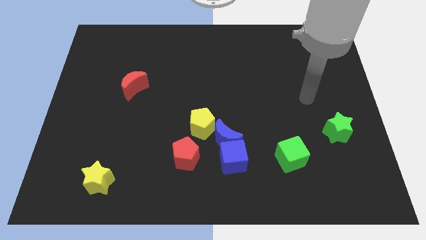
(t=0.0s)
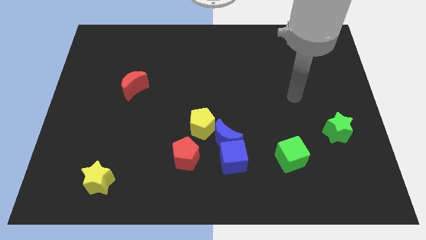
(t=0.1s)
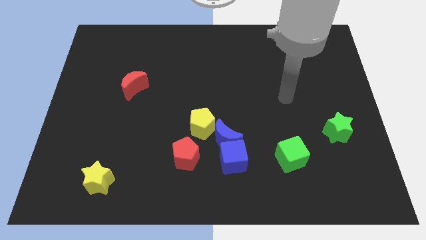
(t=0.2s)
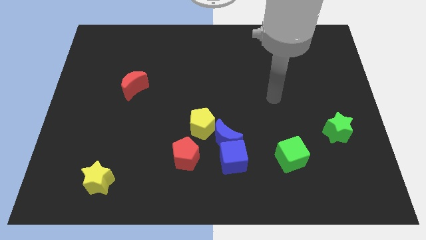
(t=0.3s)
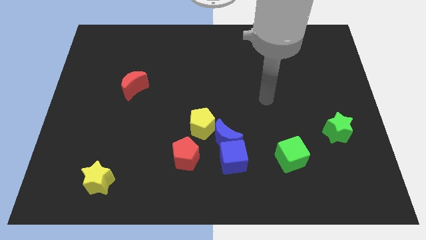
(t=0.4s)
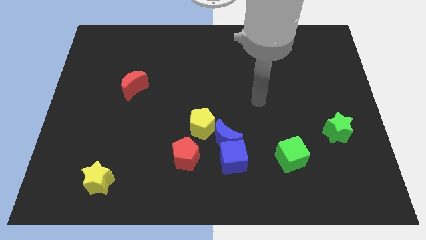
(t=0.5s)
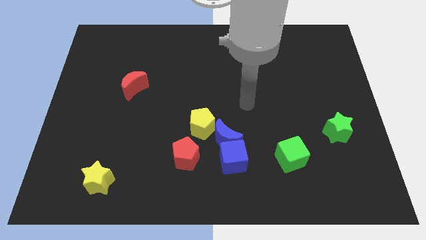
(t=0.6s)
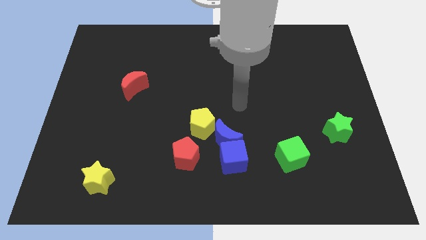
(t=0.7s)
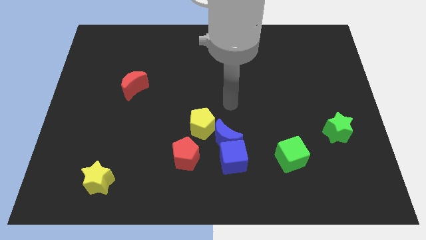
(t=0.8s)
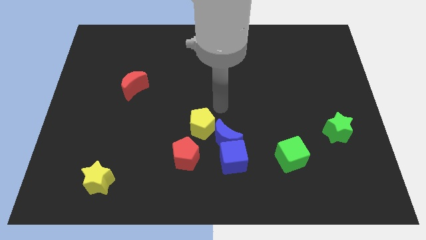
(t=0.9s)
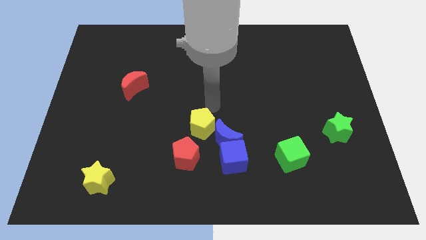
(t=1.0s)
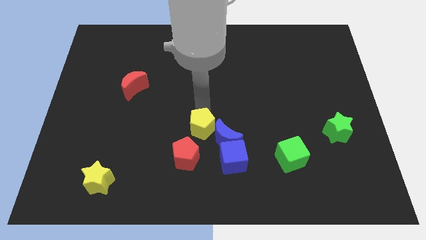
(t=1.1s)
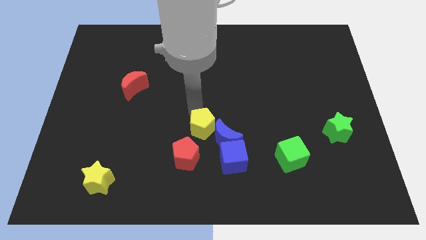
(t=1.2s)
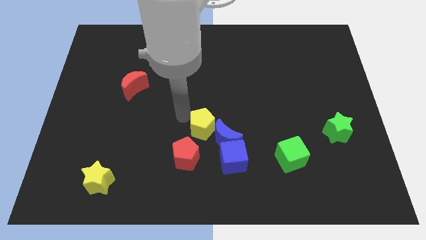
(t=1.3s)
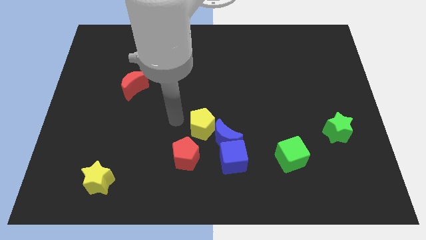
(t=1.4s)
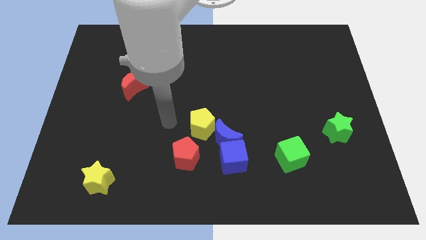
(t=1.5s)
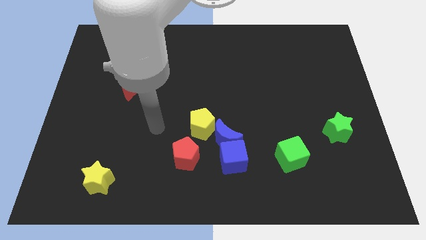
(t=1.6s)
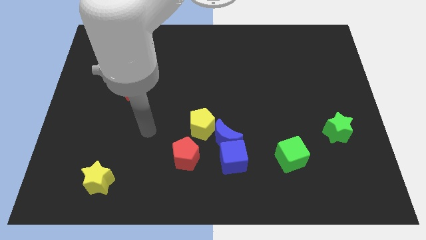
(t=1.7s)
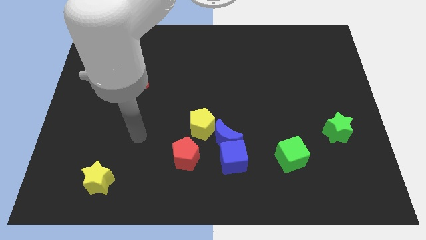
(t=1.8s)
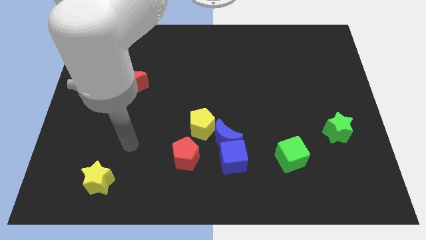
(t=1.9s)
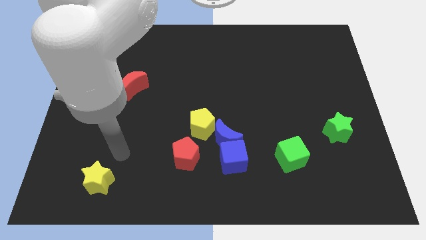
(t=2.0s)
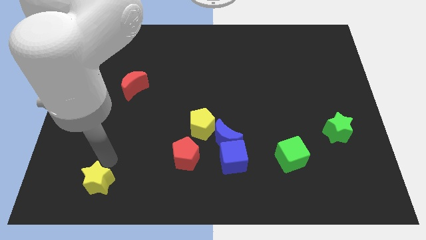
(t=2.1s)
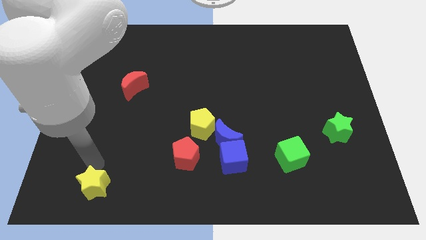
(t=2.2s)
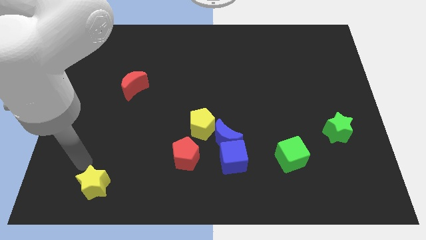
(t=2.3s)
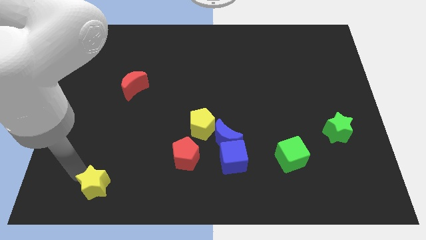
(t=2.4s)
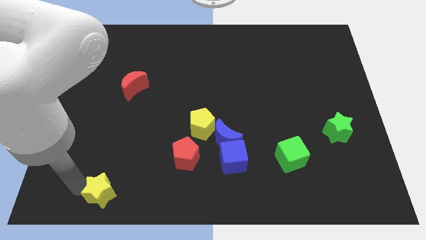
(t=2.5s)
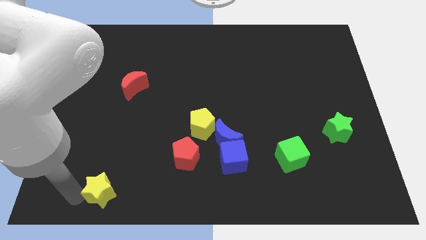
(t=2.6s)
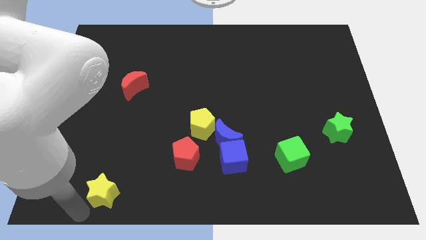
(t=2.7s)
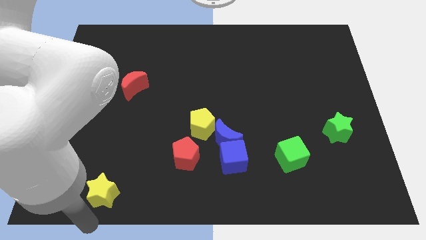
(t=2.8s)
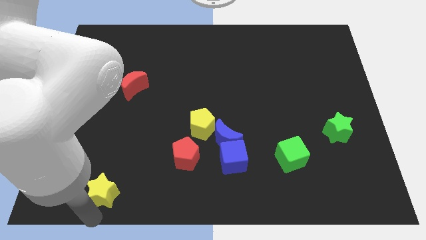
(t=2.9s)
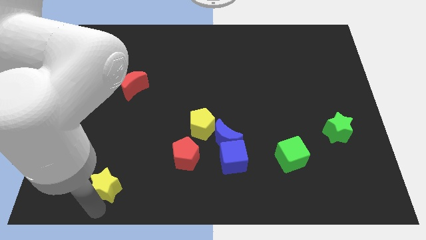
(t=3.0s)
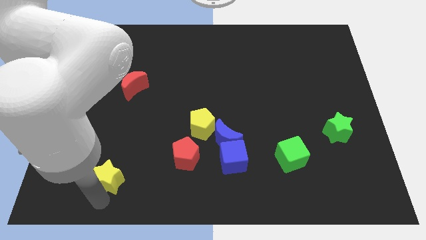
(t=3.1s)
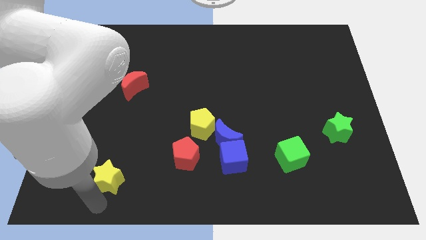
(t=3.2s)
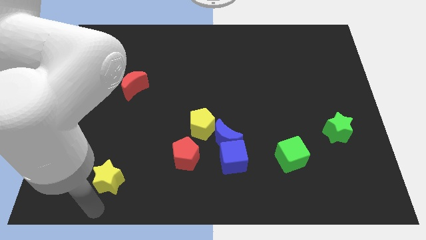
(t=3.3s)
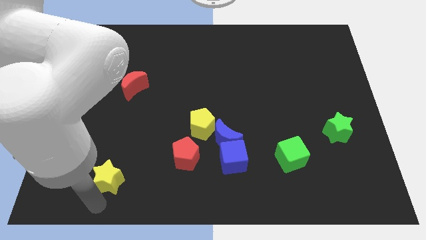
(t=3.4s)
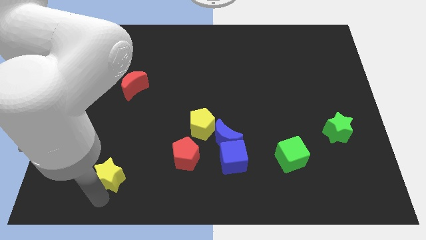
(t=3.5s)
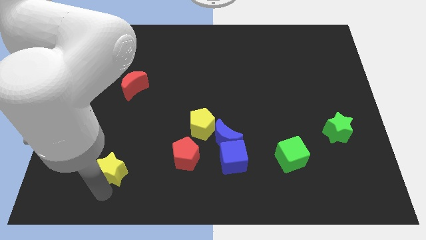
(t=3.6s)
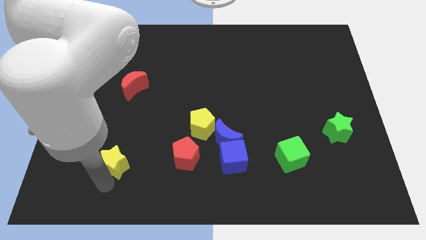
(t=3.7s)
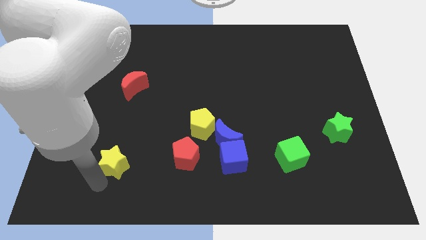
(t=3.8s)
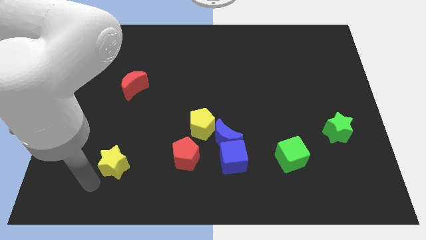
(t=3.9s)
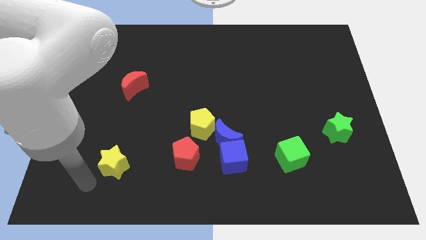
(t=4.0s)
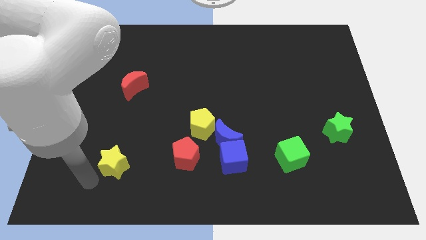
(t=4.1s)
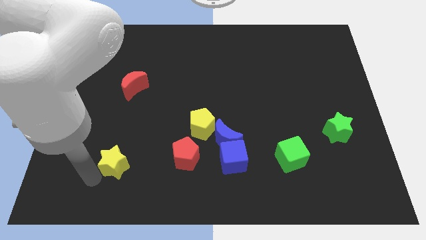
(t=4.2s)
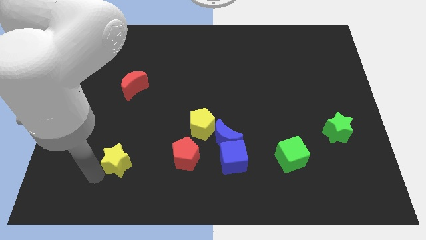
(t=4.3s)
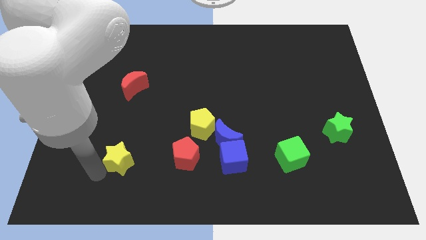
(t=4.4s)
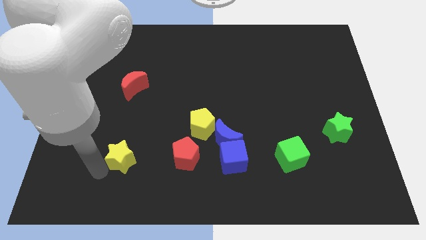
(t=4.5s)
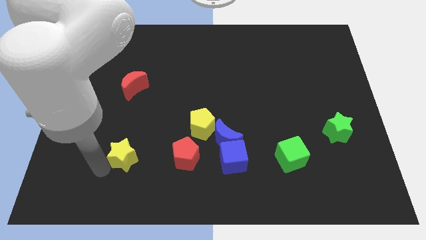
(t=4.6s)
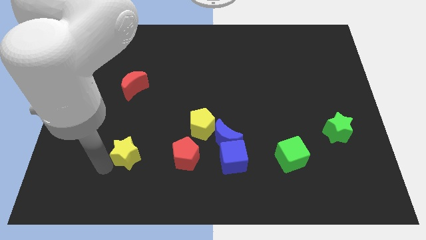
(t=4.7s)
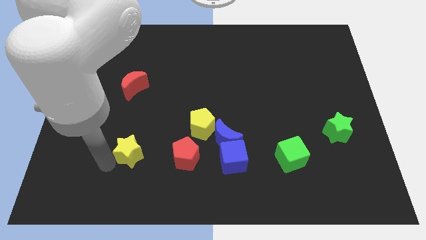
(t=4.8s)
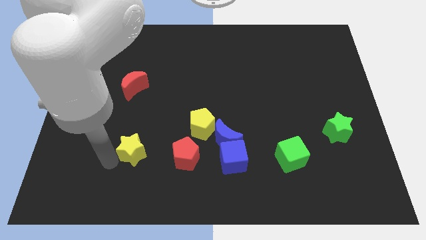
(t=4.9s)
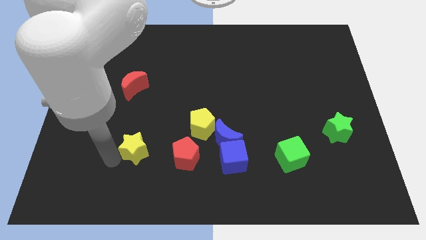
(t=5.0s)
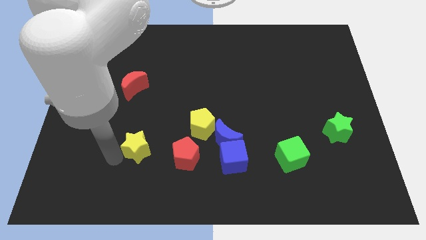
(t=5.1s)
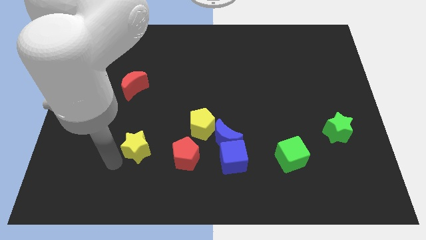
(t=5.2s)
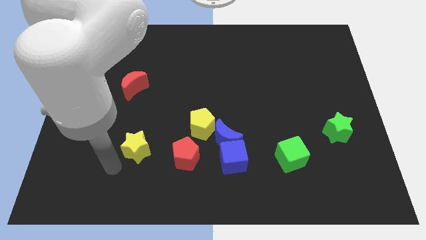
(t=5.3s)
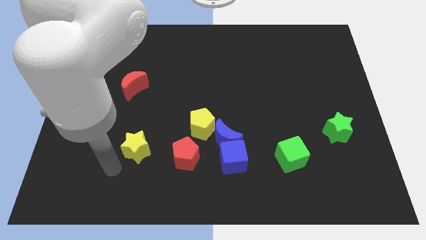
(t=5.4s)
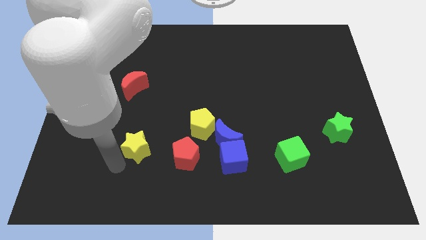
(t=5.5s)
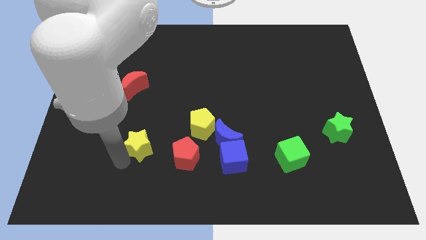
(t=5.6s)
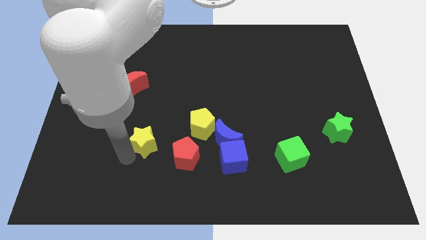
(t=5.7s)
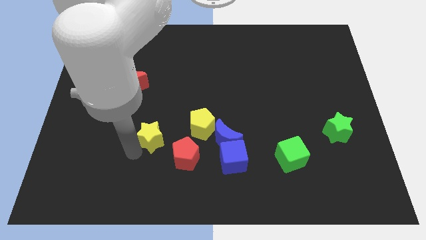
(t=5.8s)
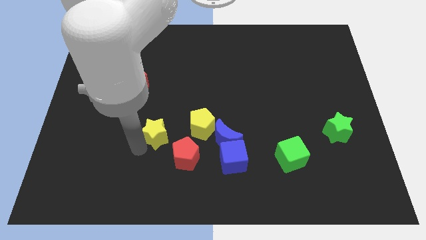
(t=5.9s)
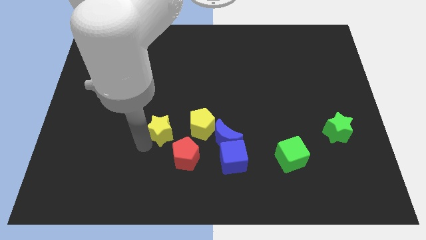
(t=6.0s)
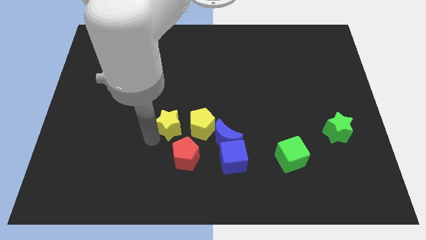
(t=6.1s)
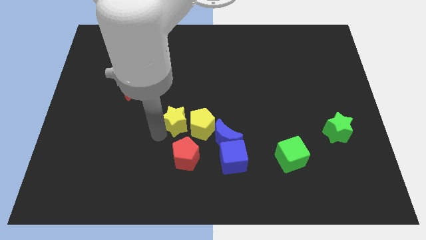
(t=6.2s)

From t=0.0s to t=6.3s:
move the yellow star diagonally up and to the right

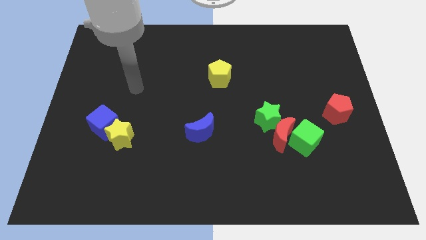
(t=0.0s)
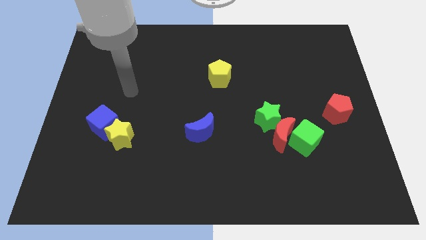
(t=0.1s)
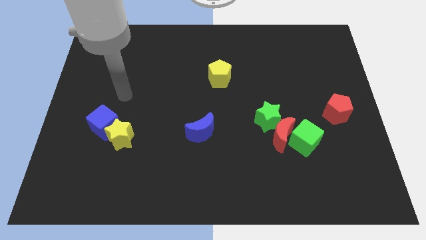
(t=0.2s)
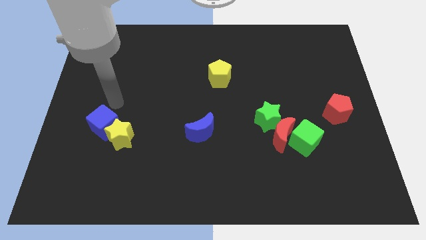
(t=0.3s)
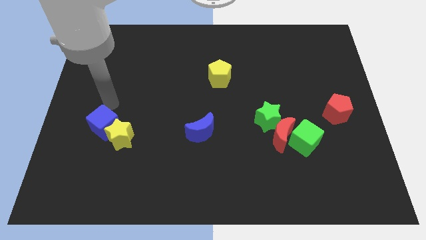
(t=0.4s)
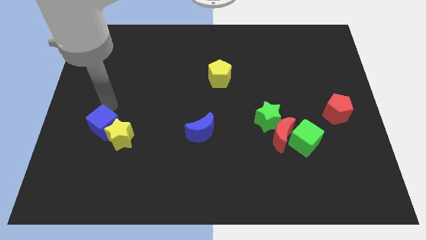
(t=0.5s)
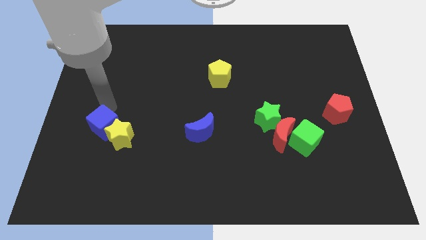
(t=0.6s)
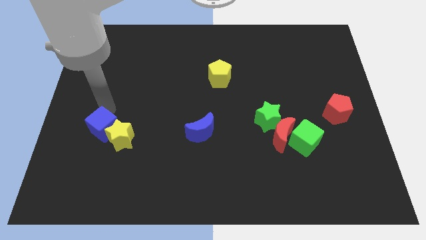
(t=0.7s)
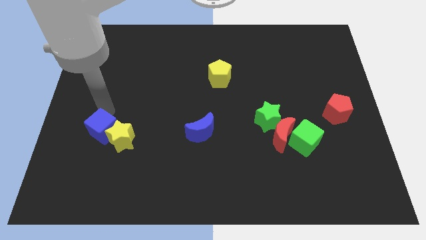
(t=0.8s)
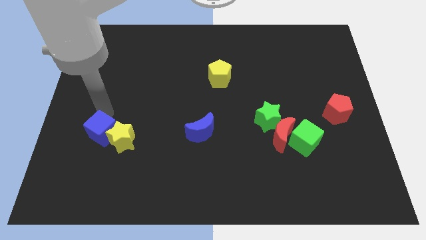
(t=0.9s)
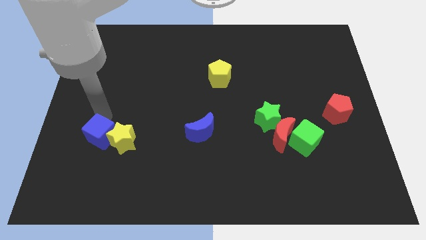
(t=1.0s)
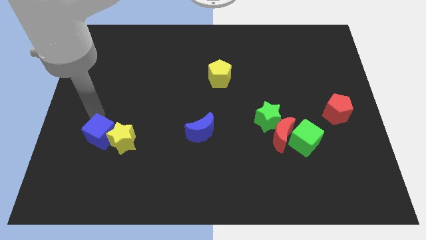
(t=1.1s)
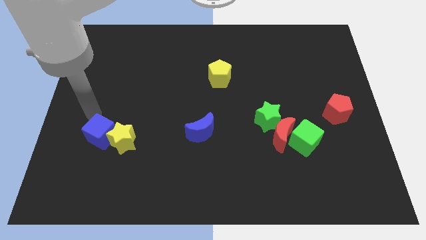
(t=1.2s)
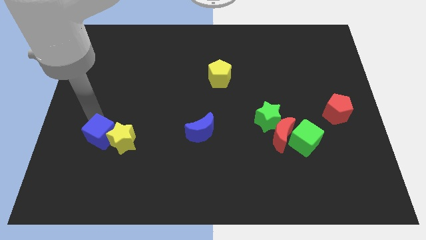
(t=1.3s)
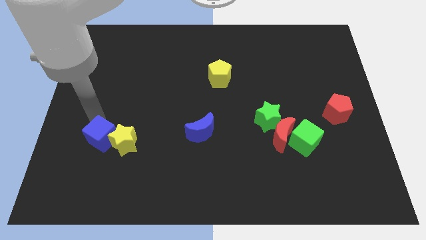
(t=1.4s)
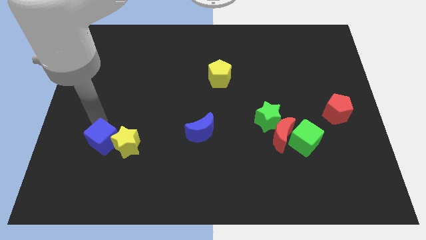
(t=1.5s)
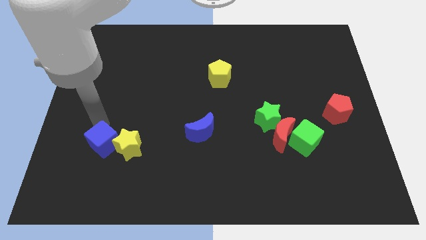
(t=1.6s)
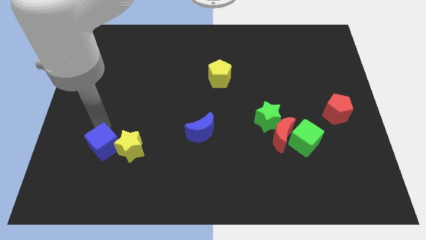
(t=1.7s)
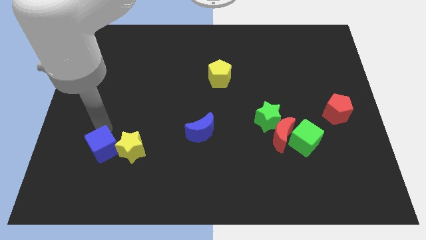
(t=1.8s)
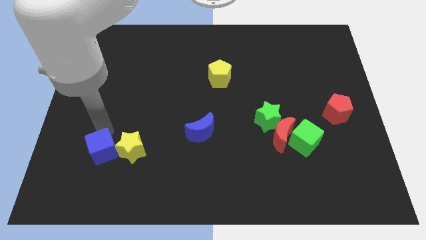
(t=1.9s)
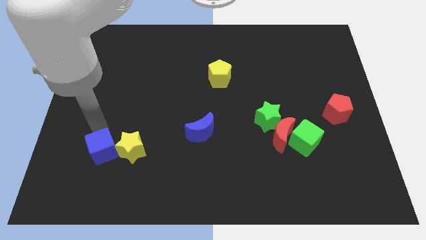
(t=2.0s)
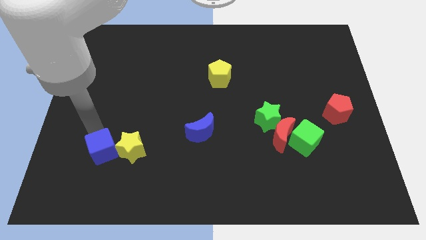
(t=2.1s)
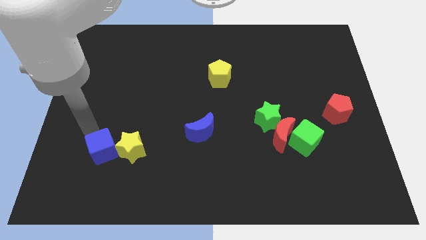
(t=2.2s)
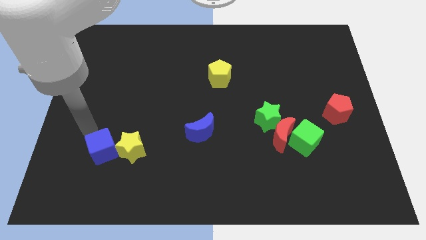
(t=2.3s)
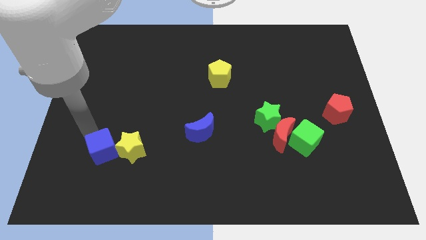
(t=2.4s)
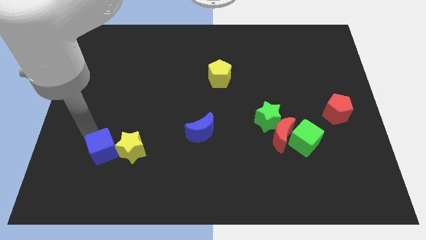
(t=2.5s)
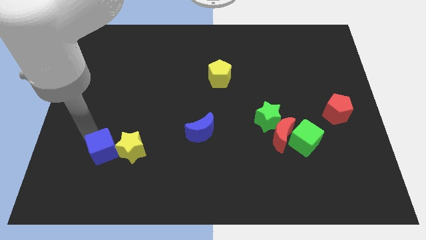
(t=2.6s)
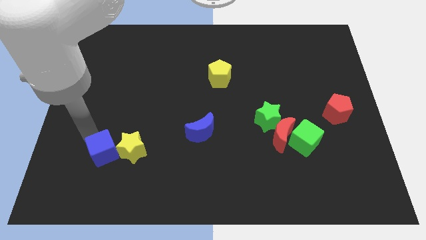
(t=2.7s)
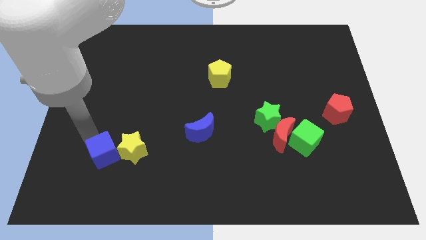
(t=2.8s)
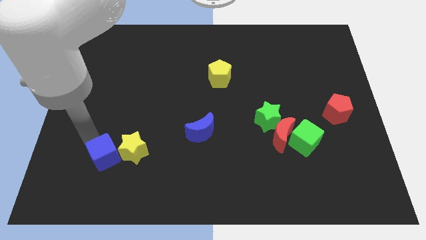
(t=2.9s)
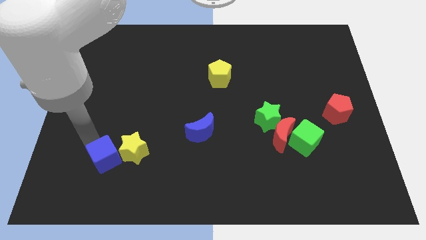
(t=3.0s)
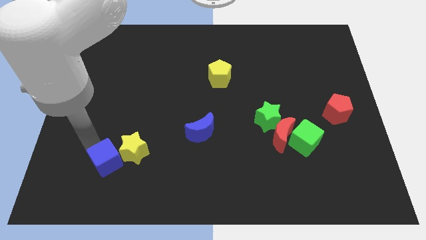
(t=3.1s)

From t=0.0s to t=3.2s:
slightly push the blue cube diagonally downwards and right
